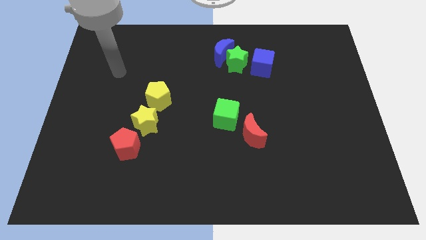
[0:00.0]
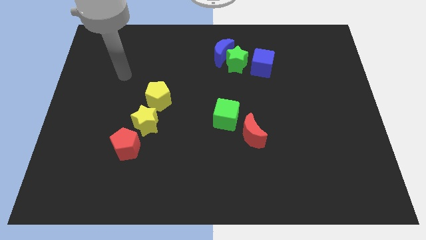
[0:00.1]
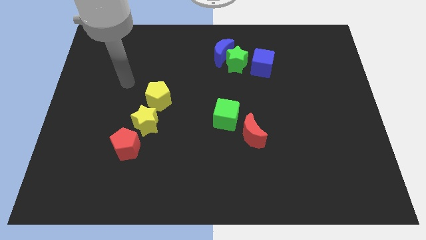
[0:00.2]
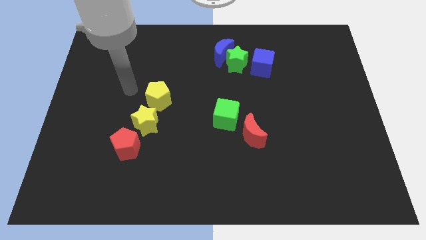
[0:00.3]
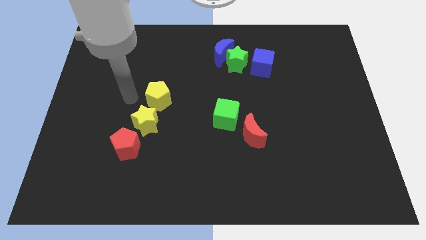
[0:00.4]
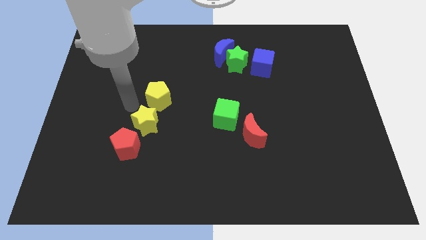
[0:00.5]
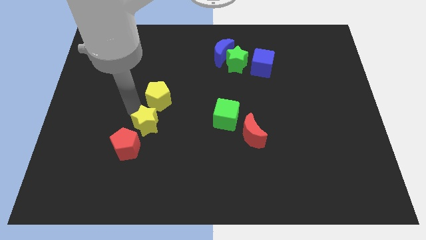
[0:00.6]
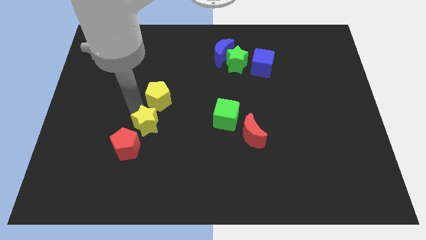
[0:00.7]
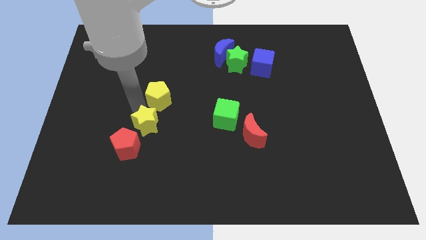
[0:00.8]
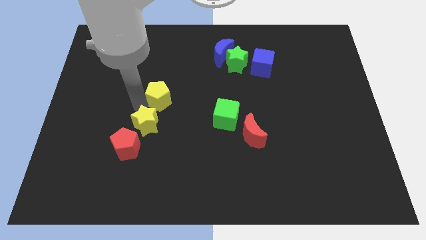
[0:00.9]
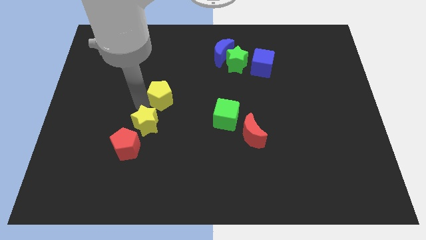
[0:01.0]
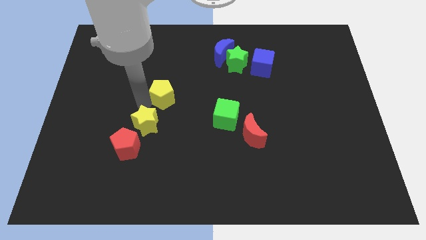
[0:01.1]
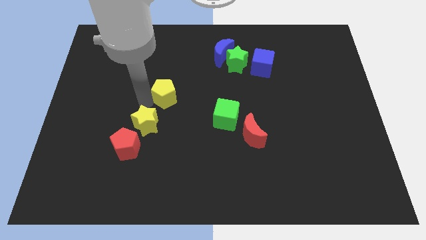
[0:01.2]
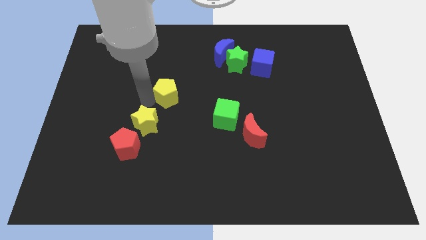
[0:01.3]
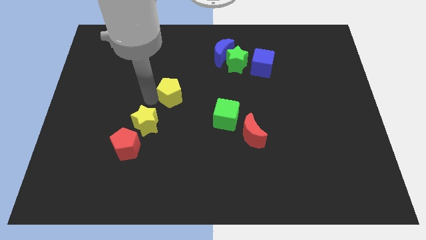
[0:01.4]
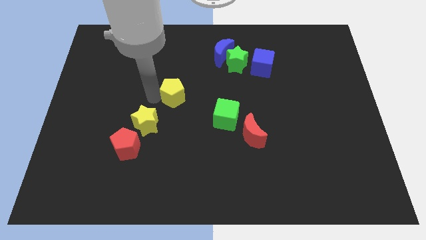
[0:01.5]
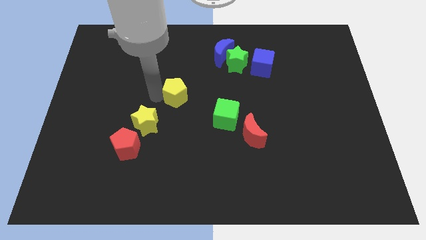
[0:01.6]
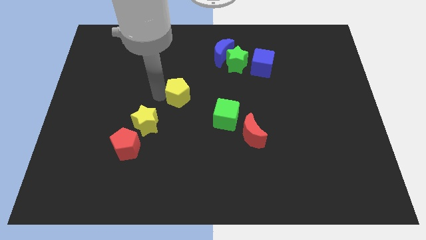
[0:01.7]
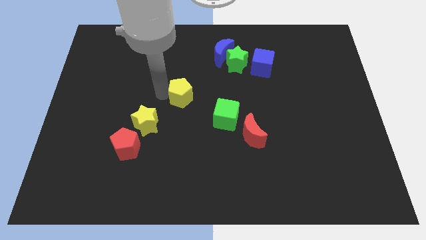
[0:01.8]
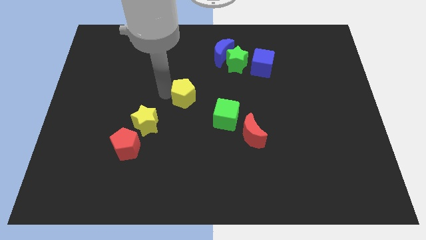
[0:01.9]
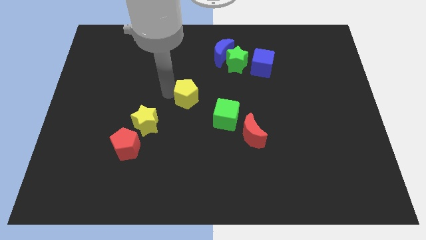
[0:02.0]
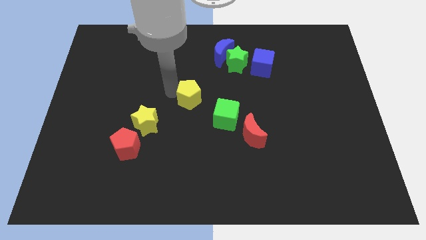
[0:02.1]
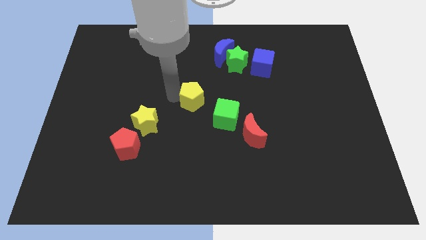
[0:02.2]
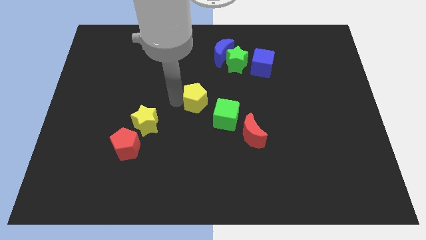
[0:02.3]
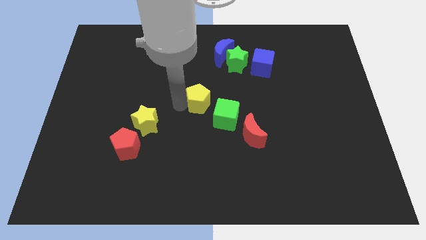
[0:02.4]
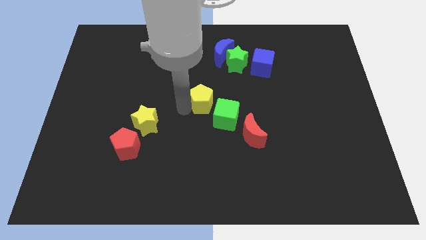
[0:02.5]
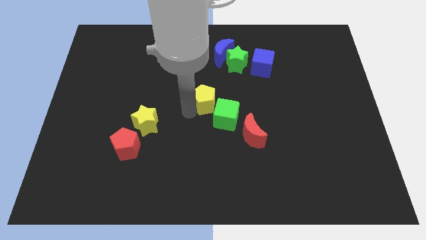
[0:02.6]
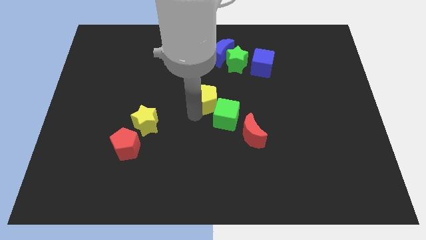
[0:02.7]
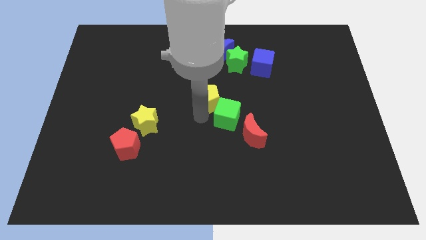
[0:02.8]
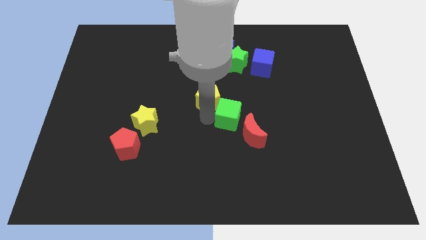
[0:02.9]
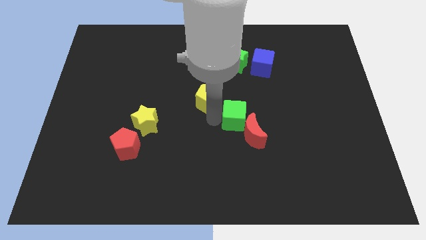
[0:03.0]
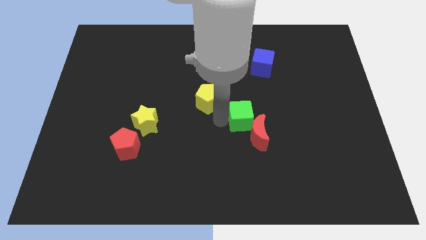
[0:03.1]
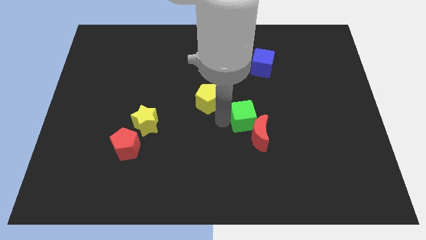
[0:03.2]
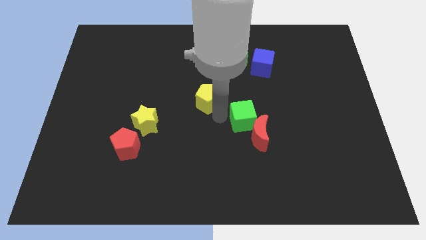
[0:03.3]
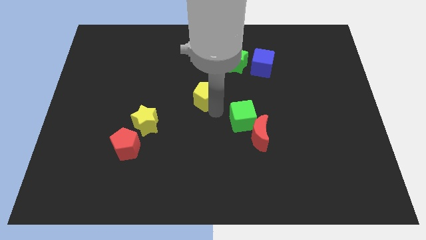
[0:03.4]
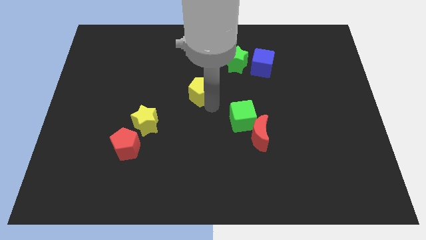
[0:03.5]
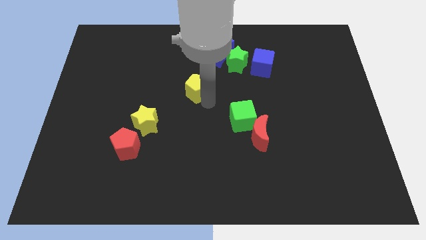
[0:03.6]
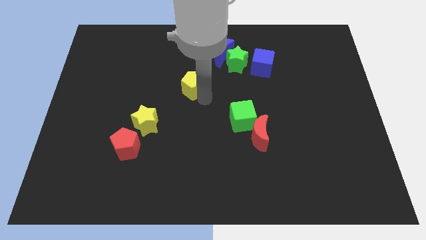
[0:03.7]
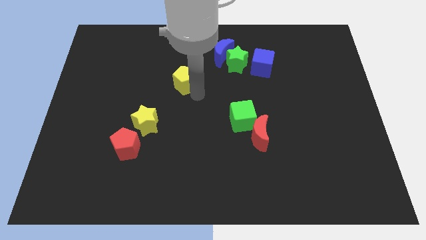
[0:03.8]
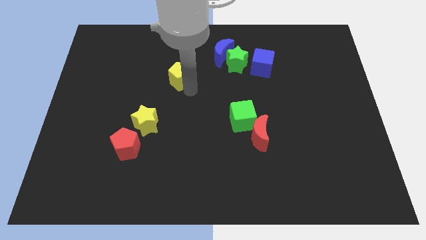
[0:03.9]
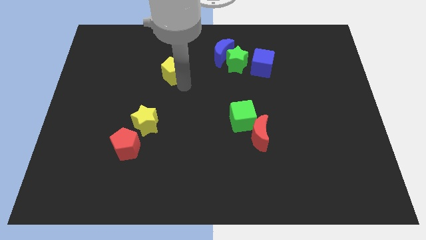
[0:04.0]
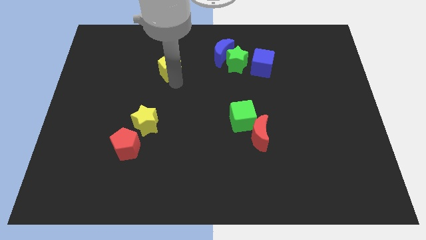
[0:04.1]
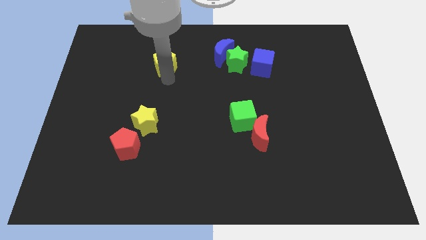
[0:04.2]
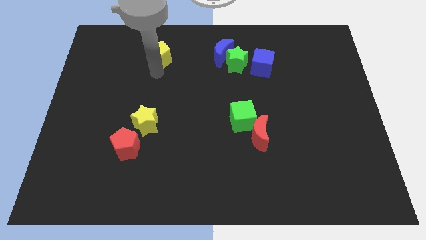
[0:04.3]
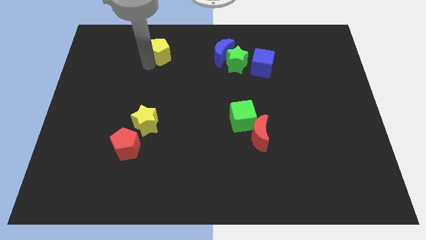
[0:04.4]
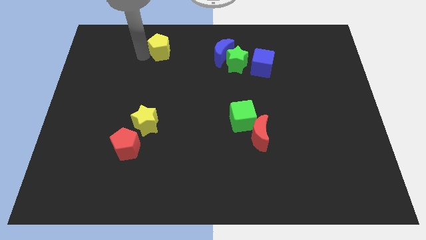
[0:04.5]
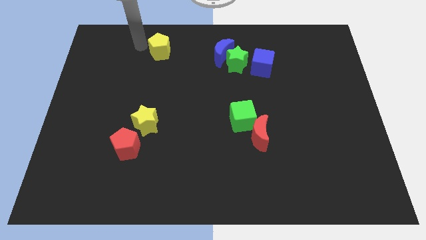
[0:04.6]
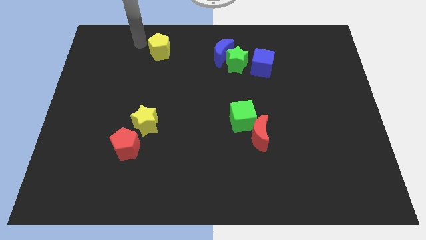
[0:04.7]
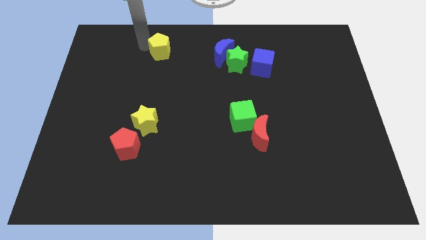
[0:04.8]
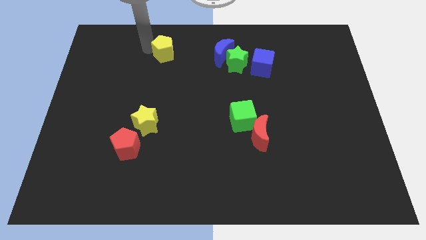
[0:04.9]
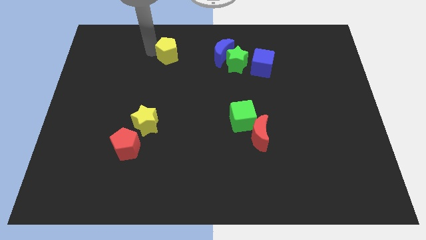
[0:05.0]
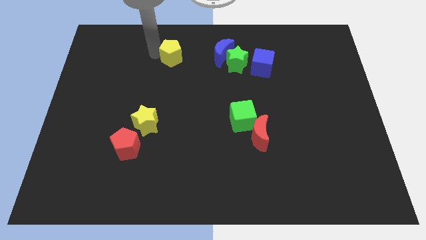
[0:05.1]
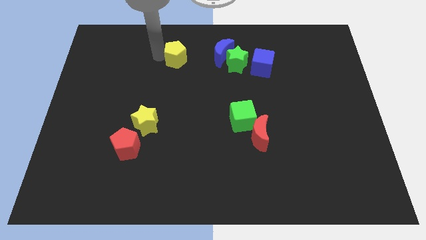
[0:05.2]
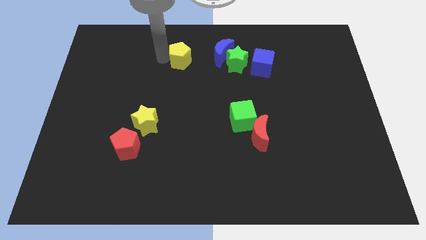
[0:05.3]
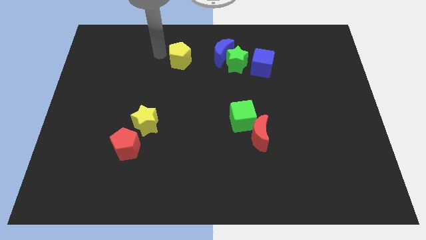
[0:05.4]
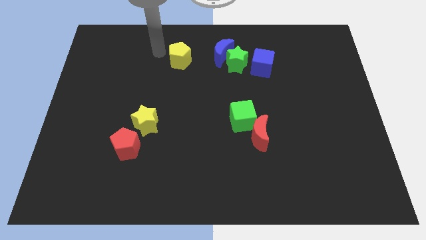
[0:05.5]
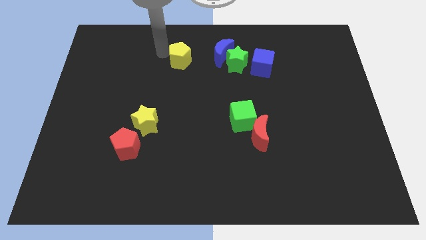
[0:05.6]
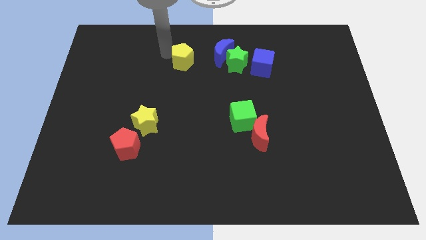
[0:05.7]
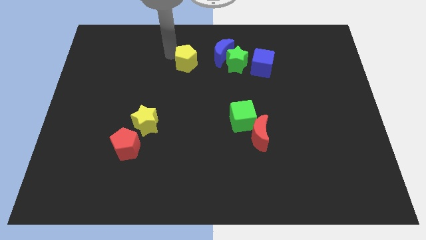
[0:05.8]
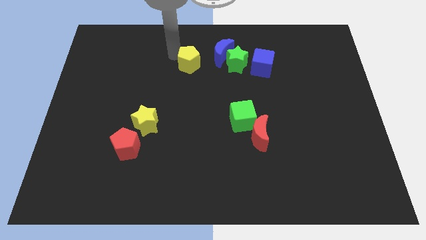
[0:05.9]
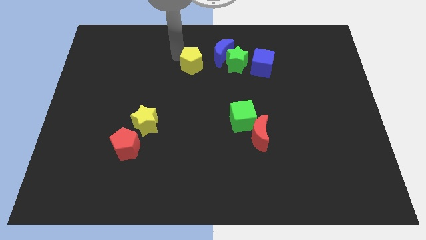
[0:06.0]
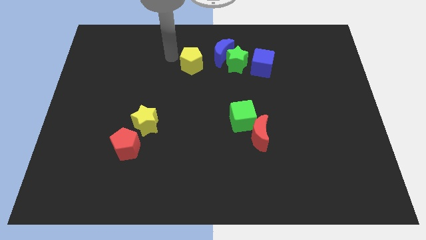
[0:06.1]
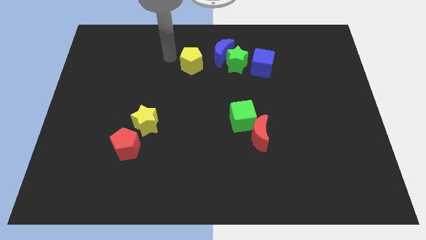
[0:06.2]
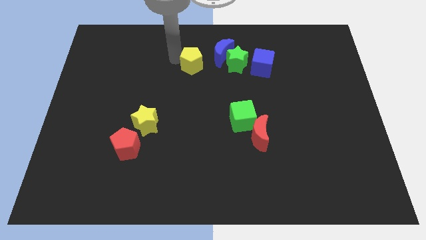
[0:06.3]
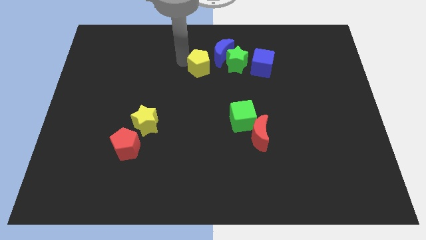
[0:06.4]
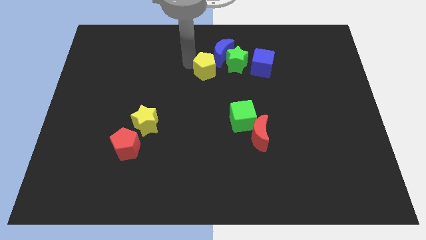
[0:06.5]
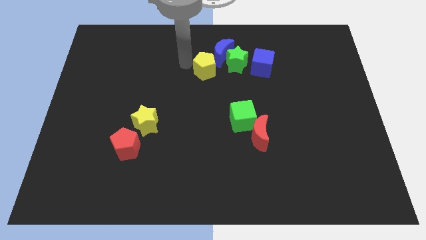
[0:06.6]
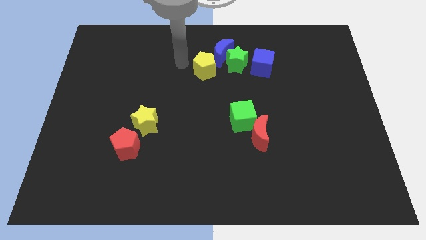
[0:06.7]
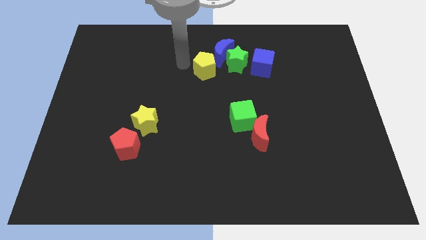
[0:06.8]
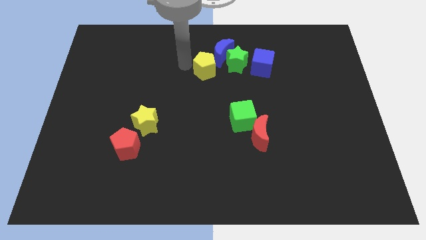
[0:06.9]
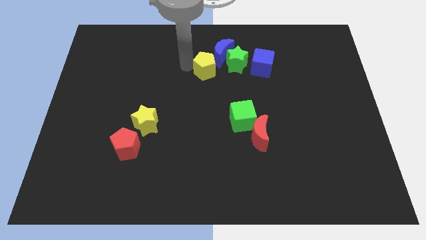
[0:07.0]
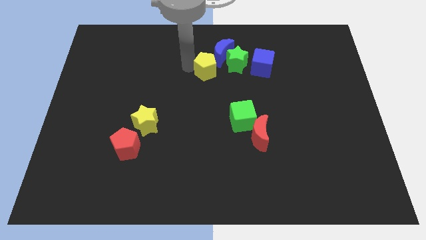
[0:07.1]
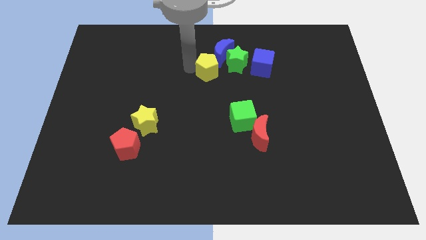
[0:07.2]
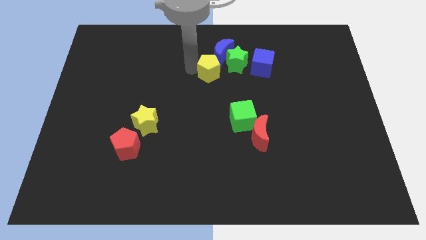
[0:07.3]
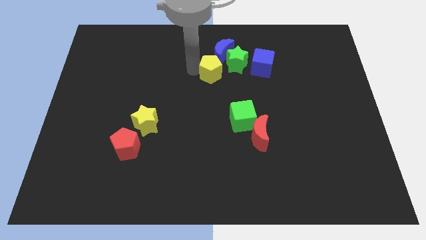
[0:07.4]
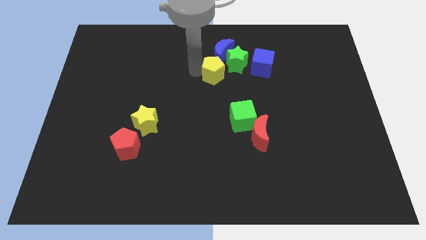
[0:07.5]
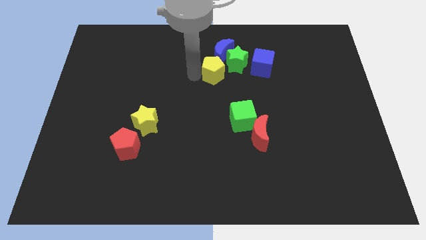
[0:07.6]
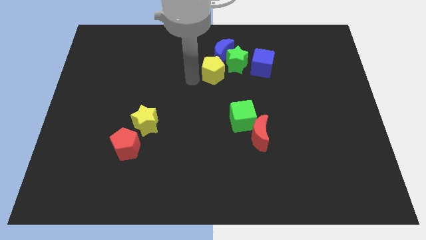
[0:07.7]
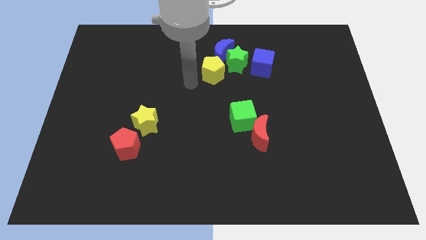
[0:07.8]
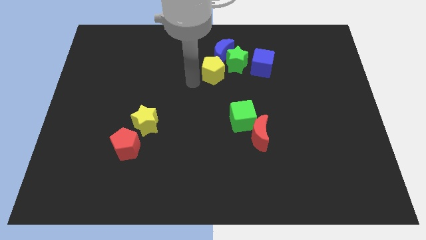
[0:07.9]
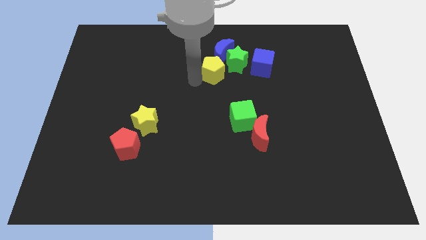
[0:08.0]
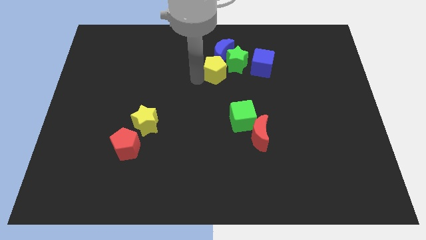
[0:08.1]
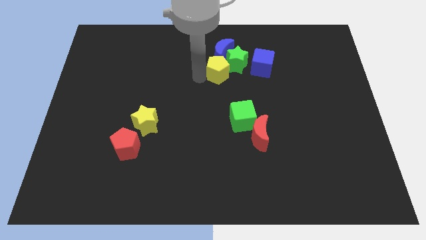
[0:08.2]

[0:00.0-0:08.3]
move the yellow pentagon close to the green star
